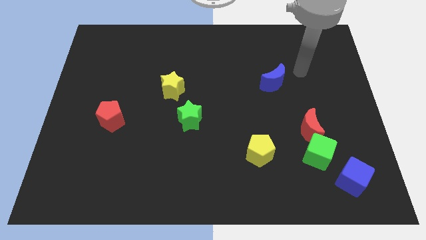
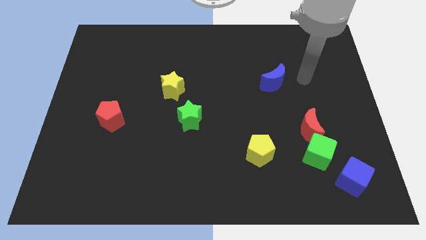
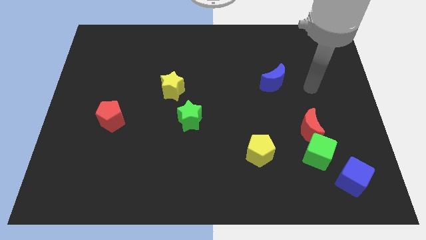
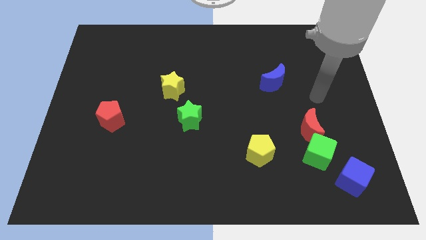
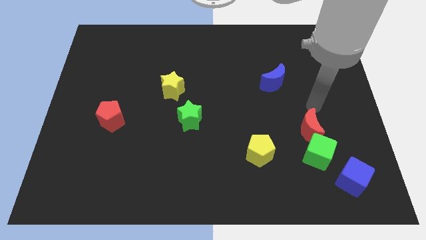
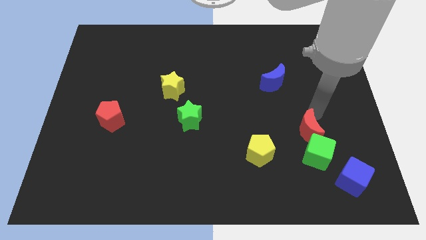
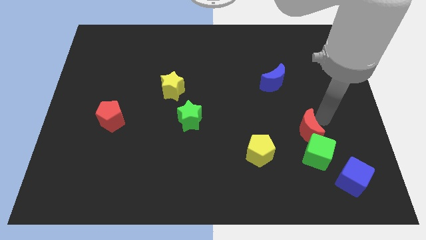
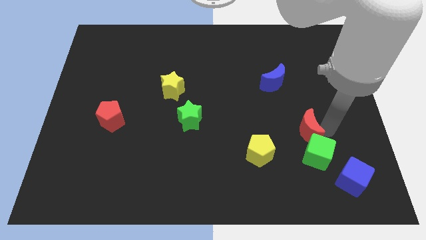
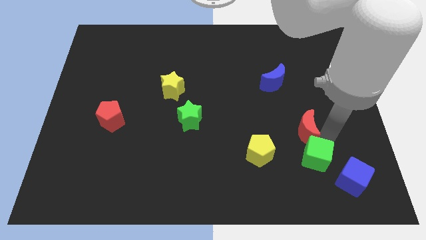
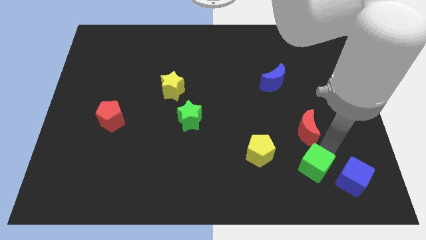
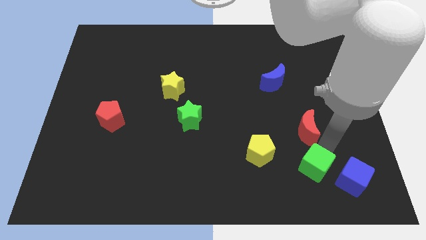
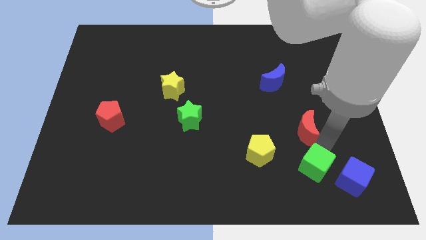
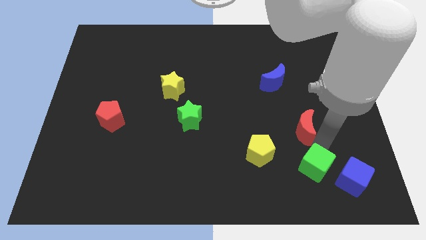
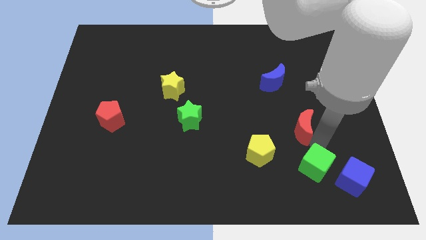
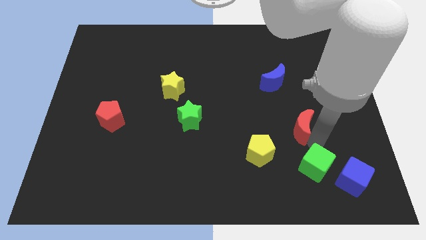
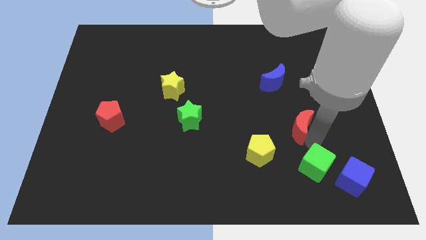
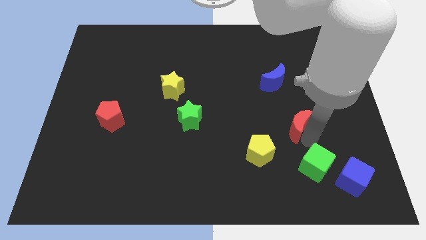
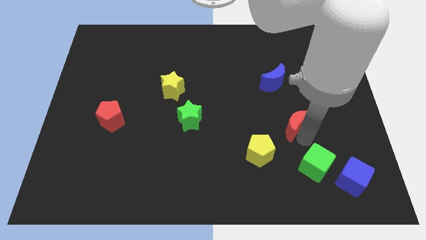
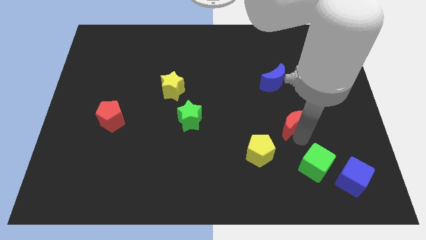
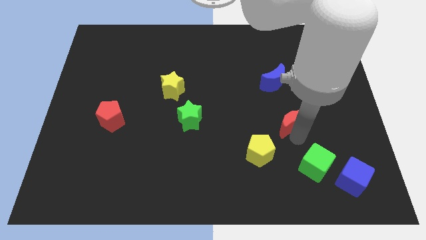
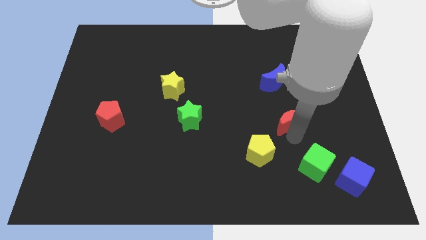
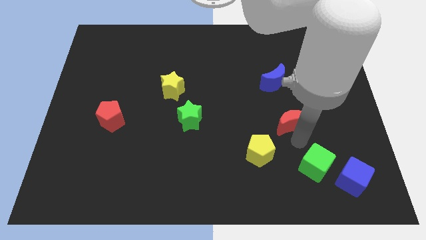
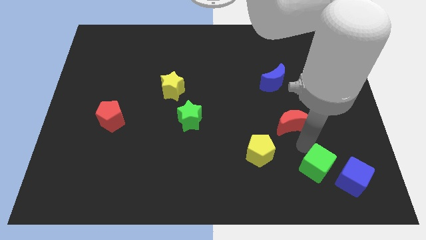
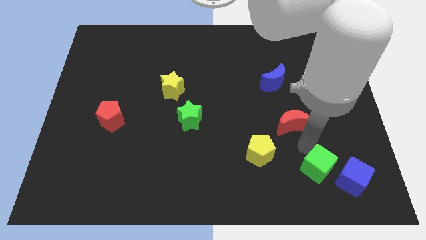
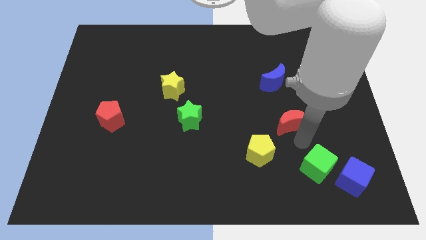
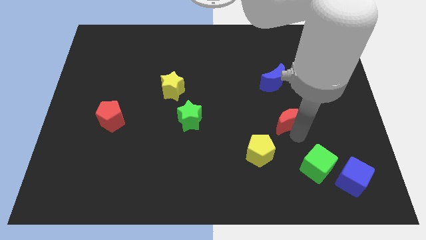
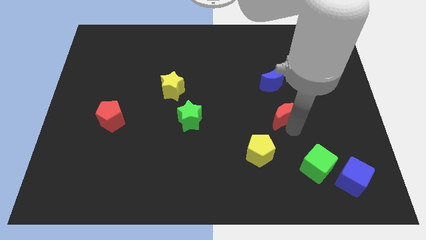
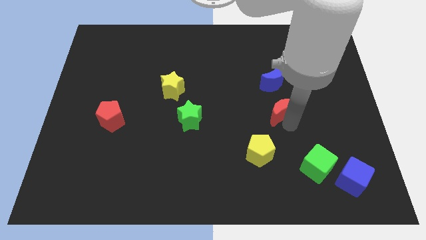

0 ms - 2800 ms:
move the red moon upwards and to the left somewhat

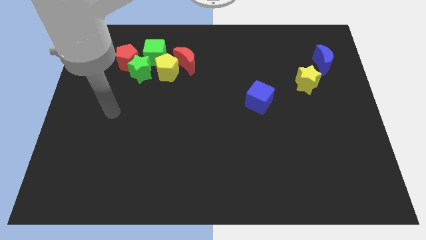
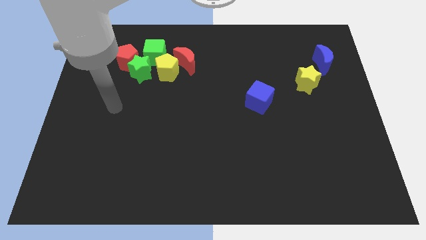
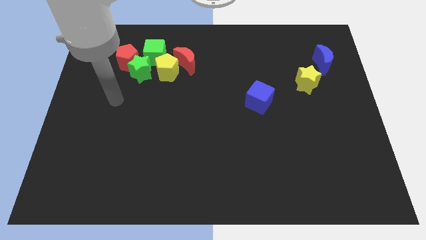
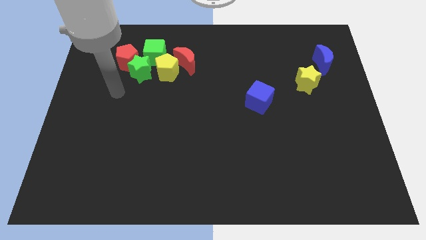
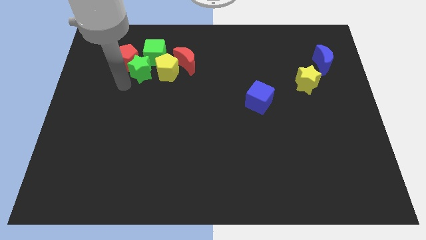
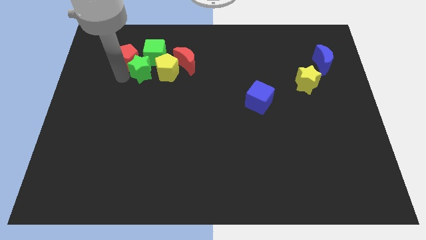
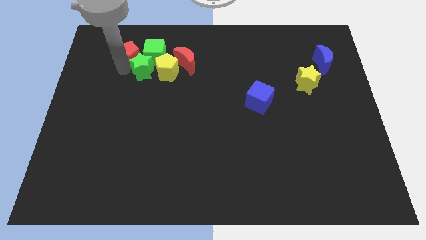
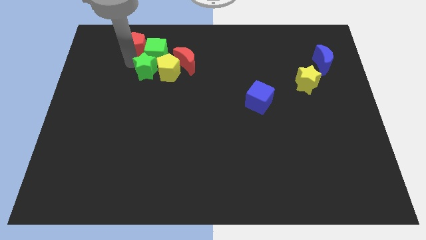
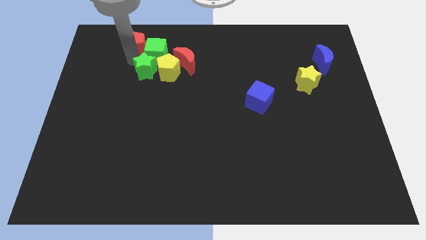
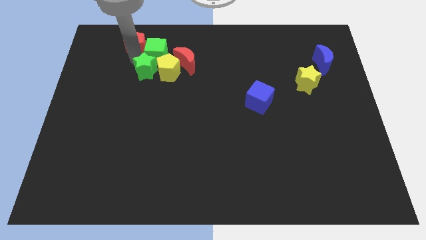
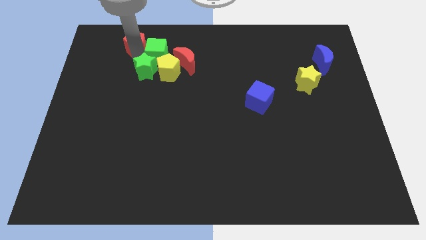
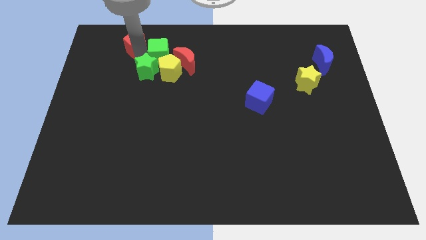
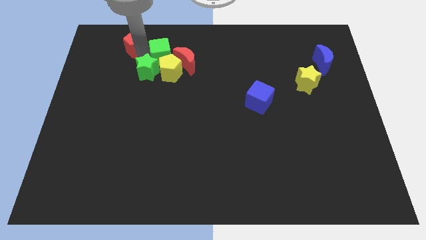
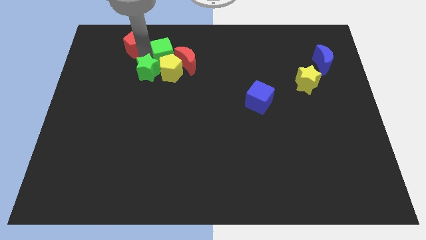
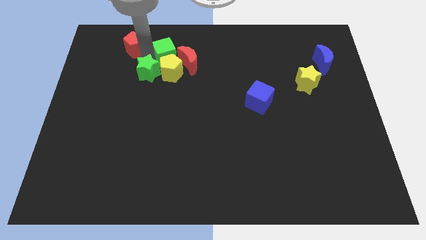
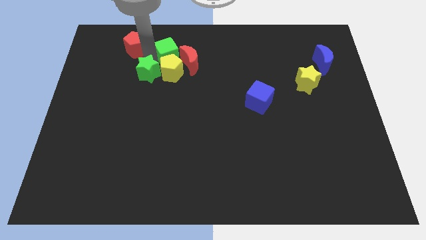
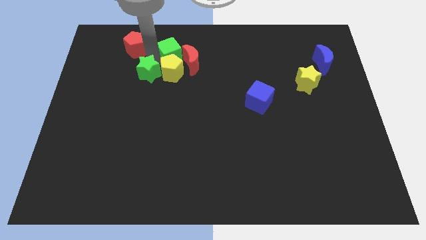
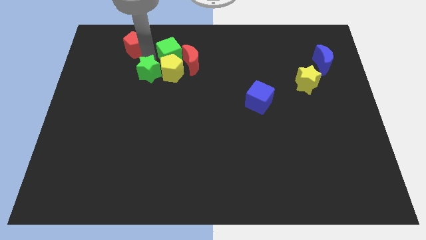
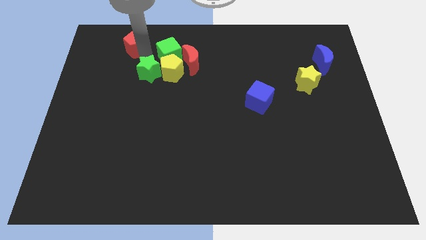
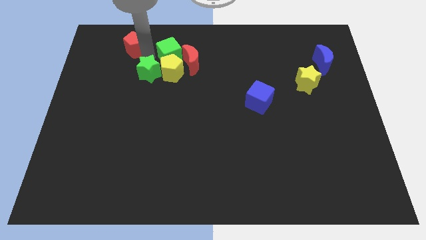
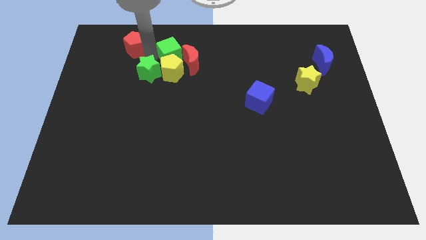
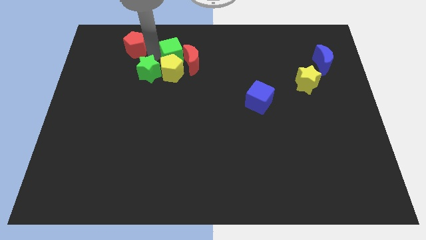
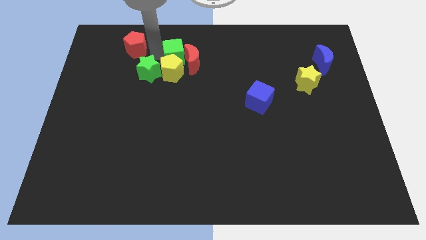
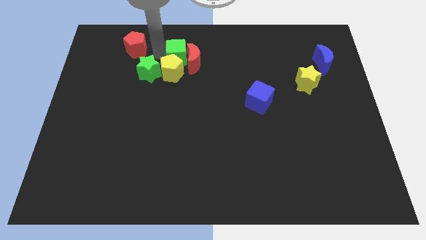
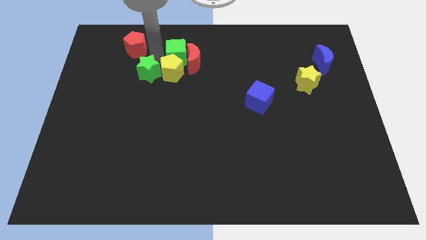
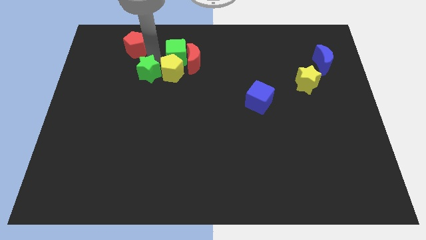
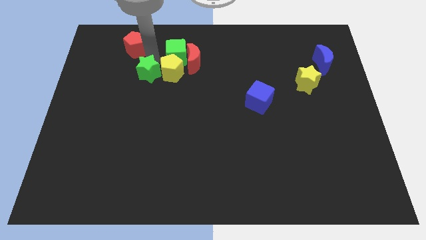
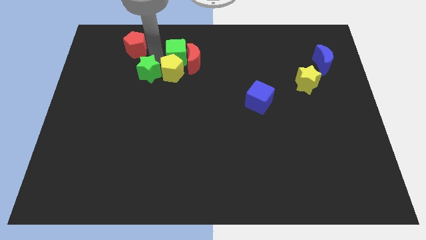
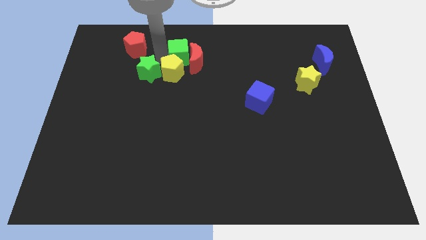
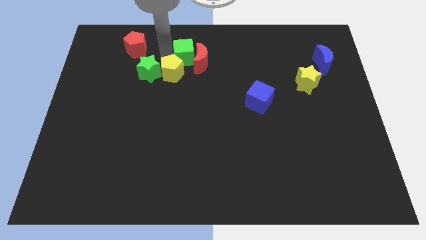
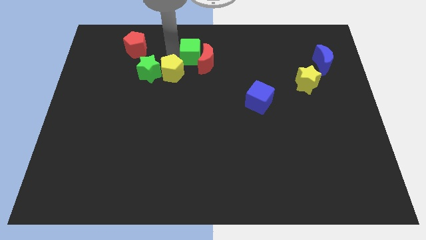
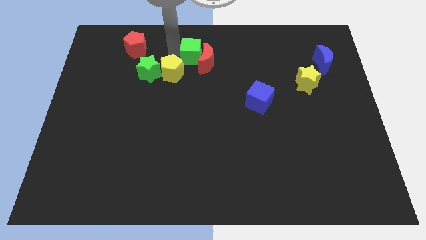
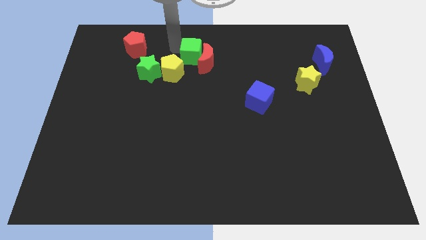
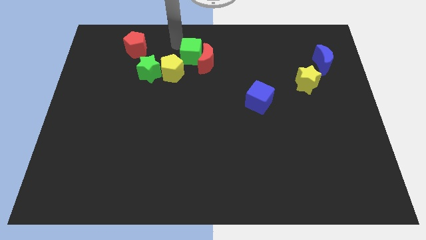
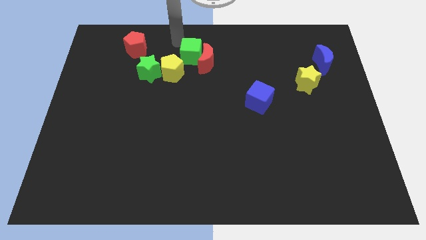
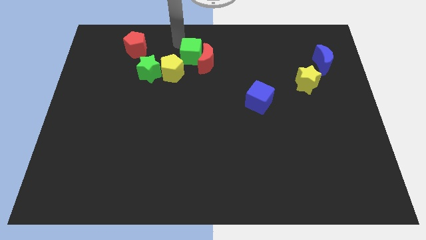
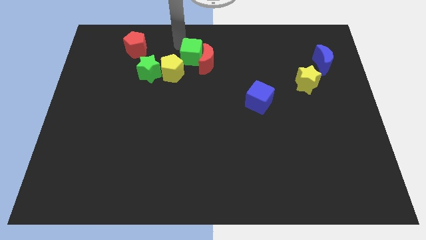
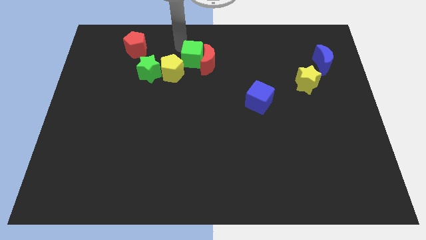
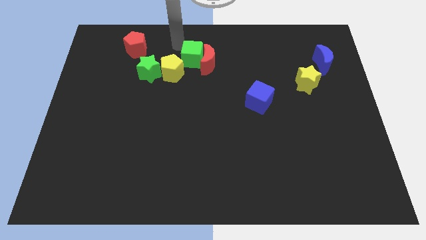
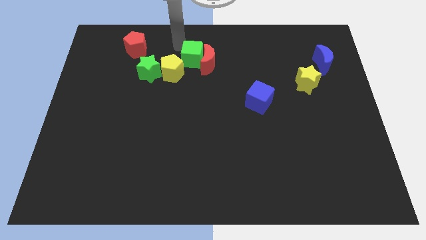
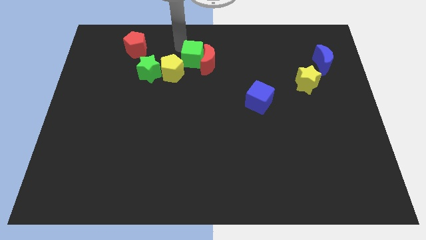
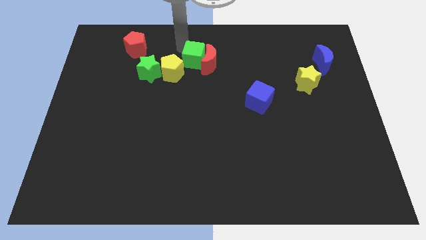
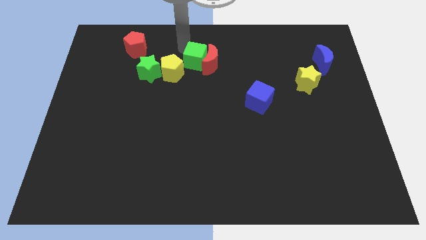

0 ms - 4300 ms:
push the green cube a little downwards and right

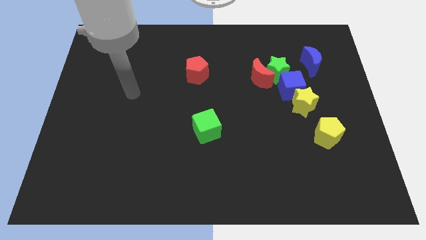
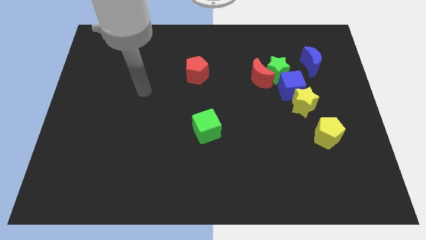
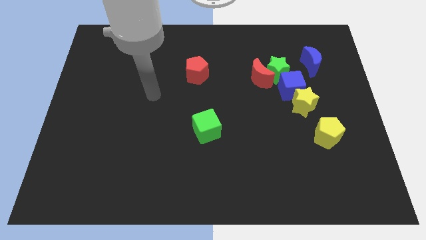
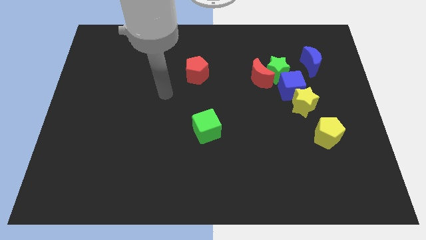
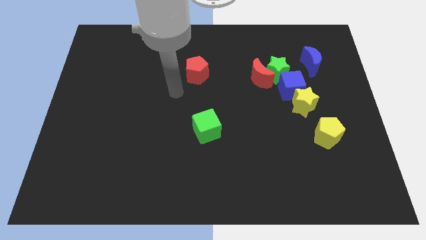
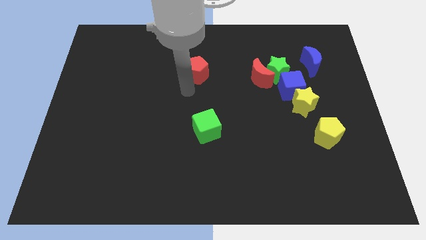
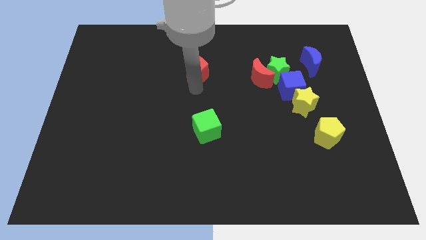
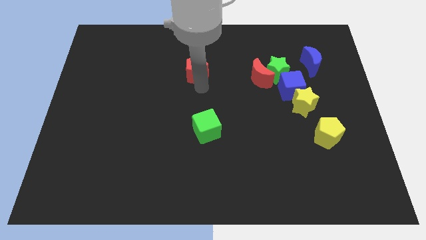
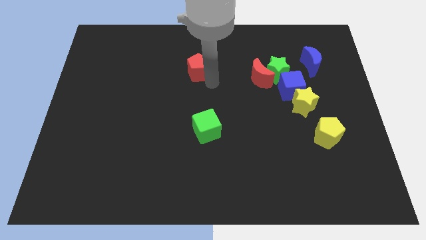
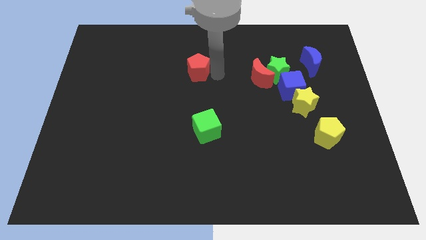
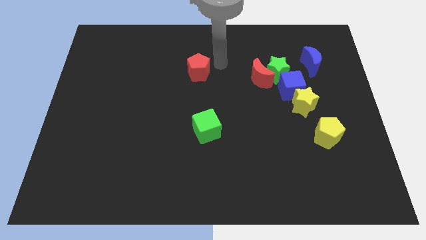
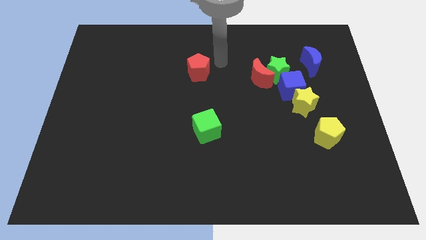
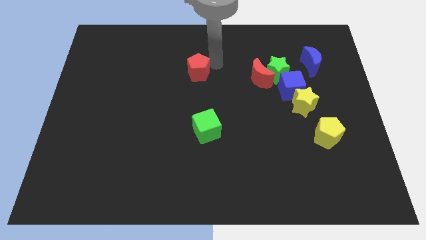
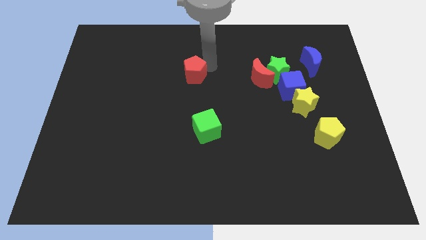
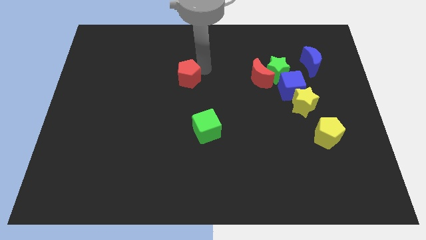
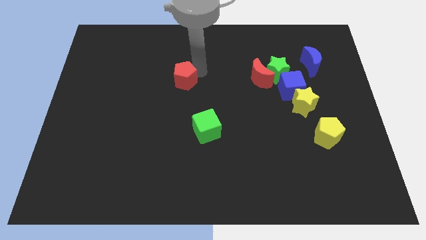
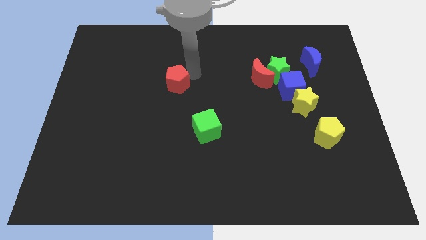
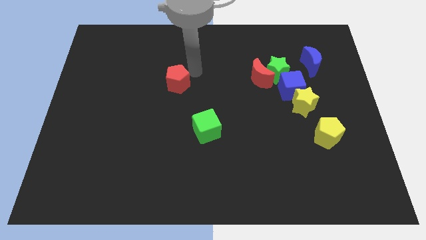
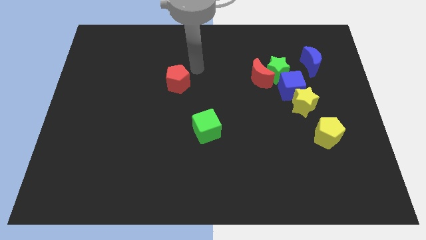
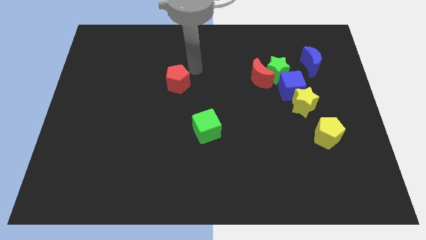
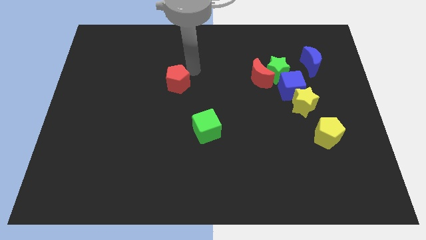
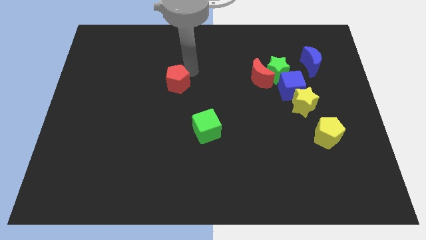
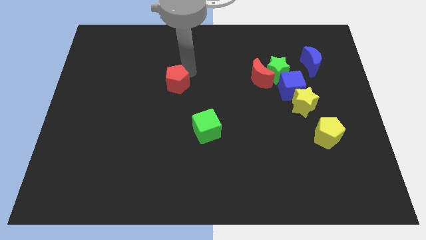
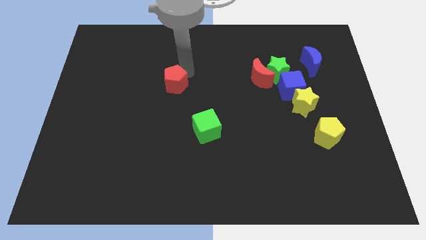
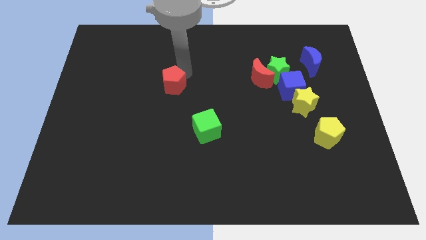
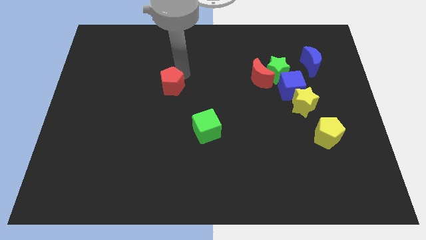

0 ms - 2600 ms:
slightly slide the red pentagon diagonally down and to the left
